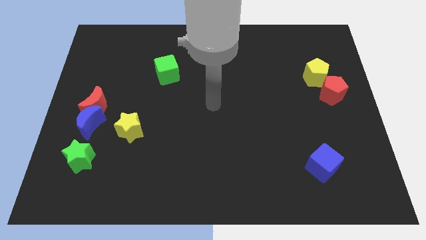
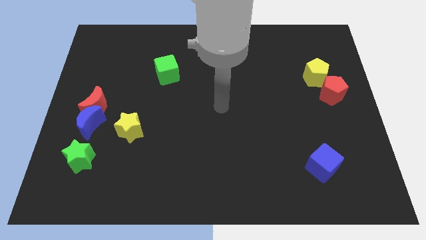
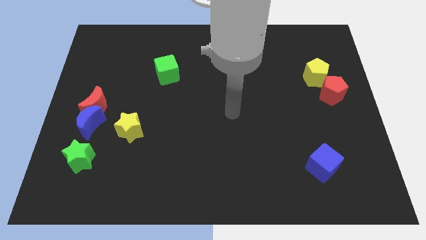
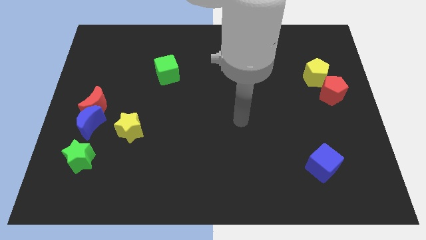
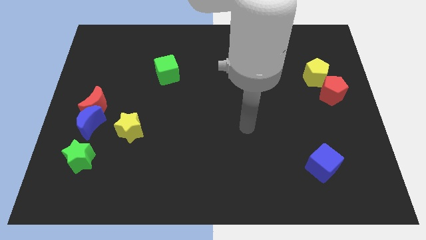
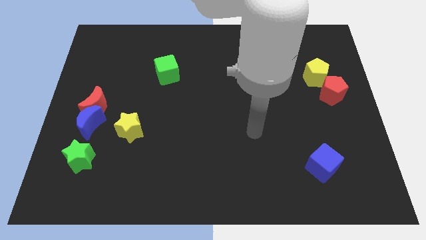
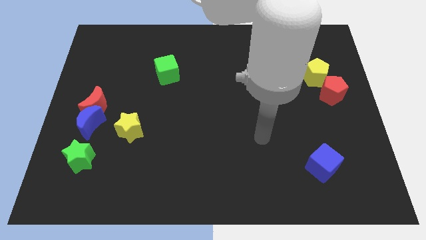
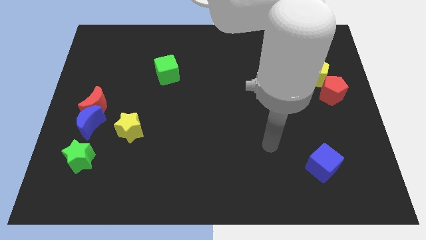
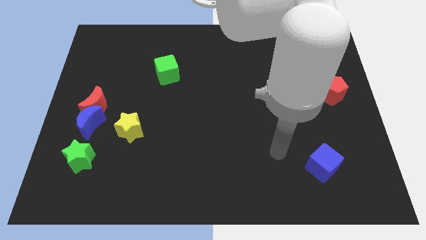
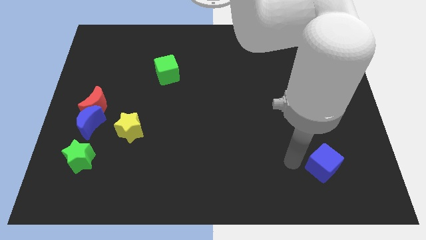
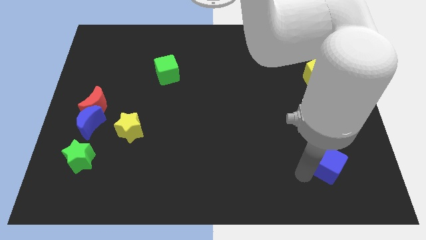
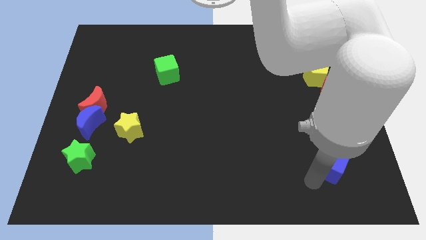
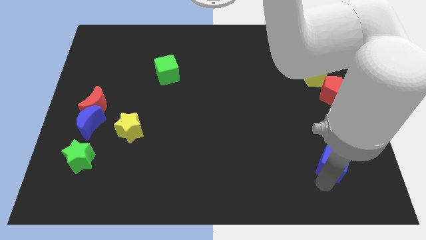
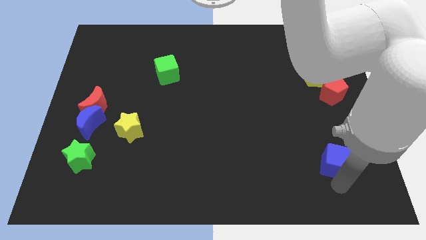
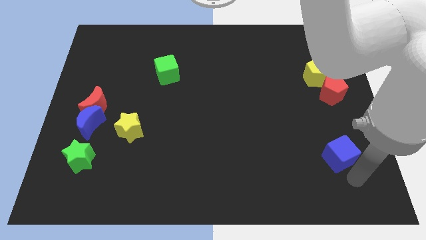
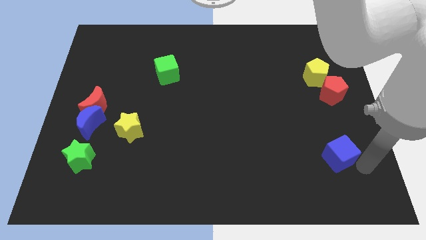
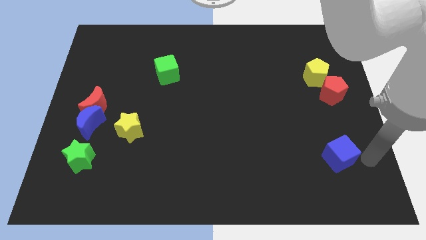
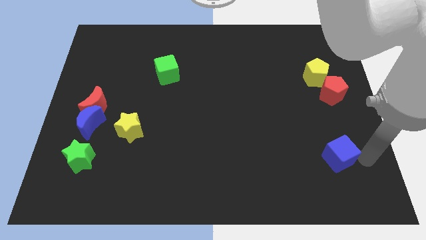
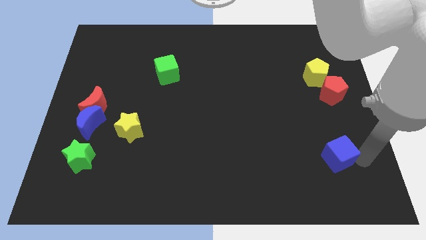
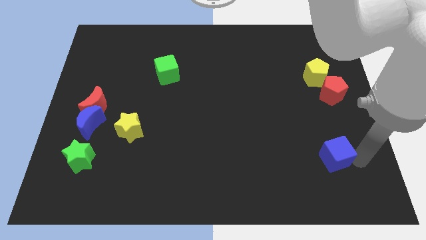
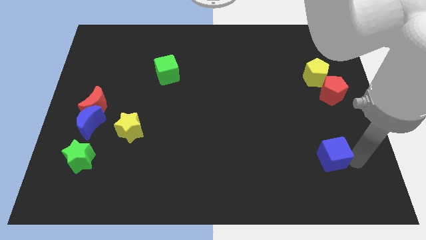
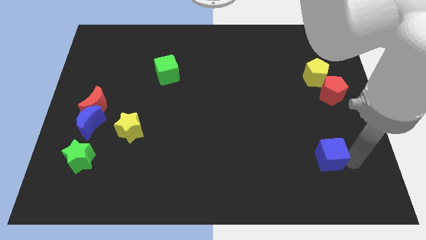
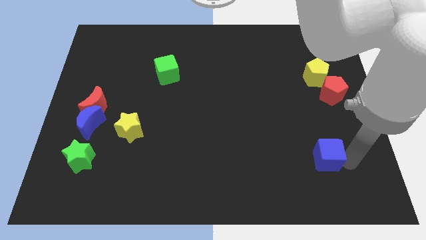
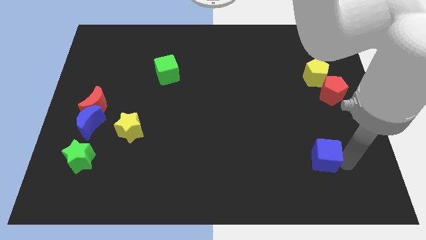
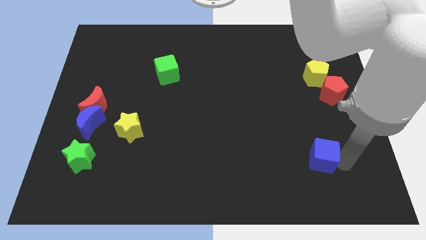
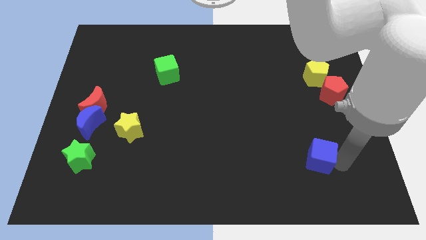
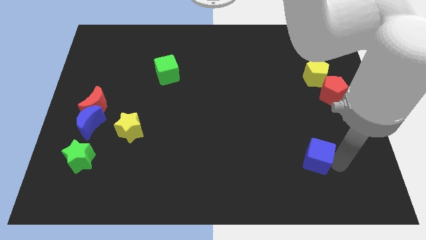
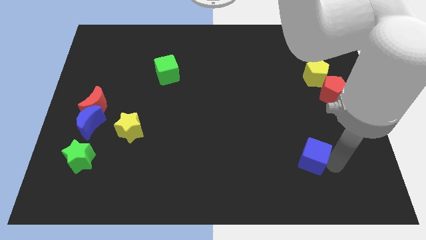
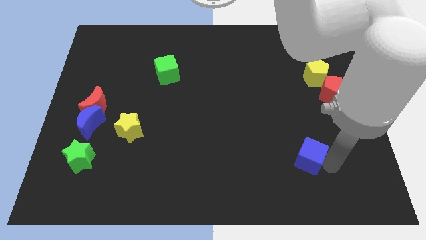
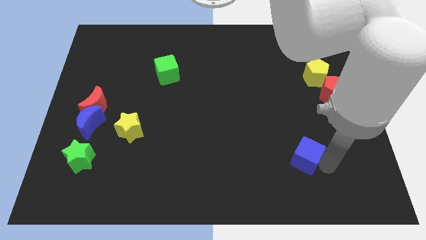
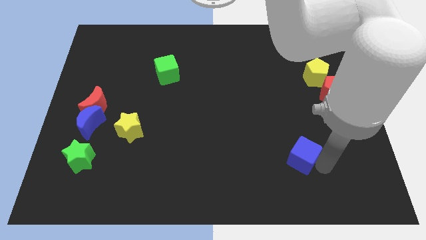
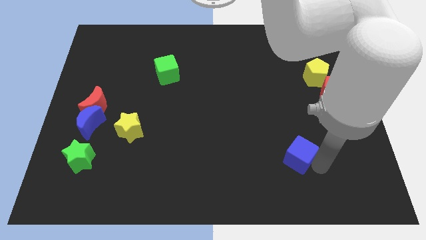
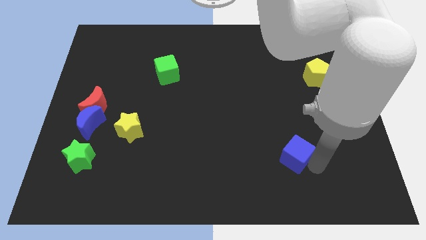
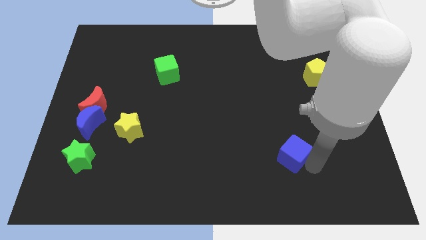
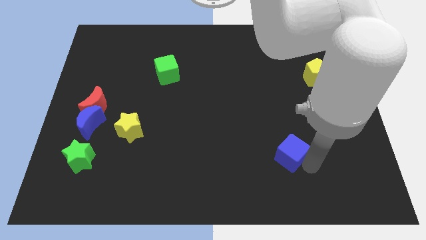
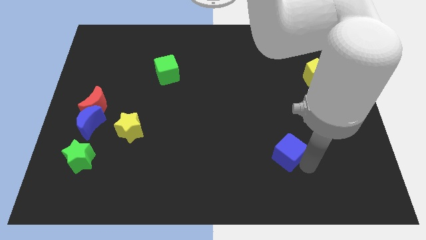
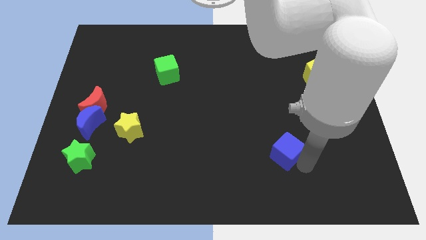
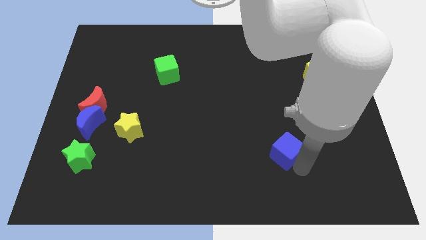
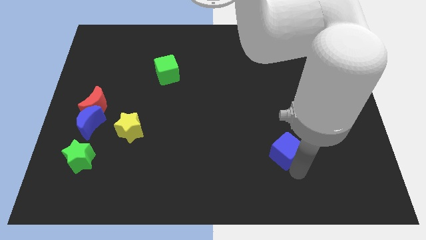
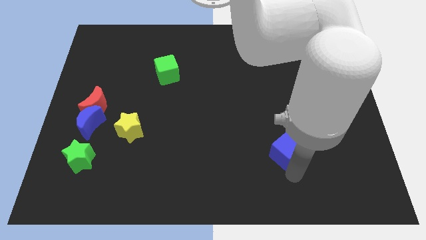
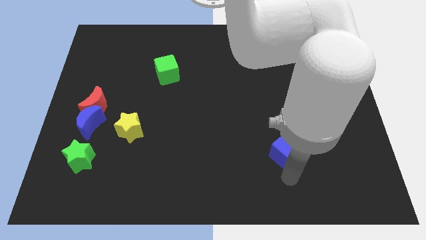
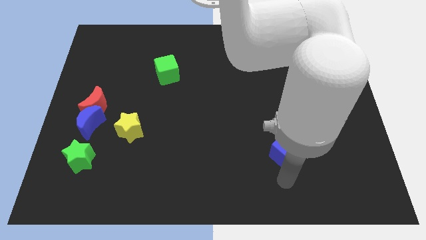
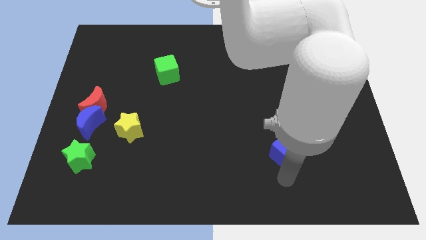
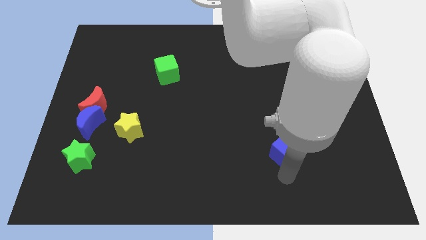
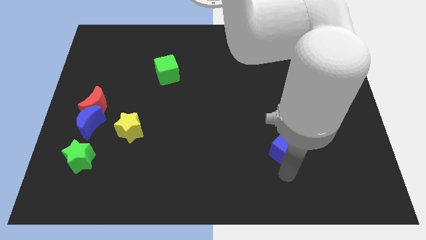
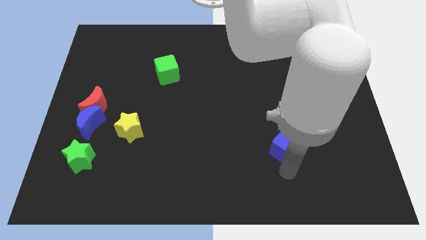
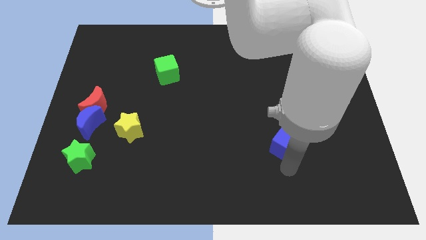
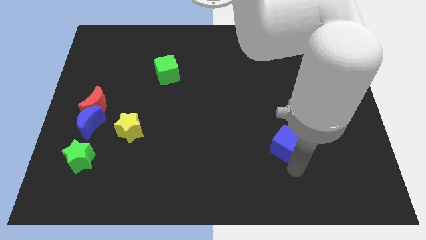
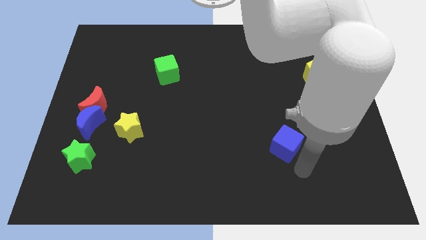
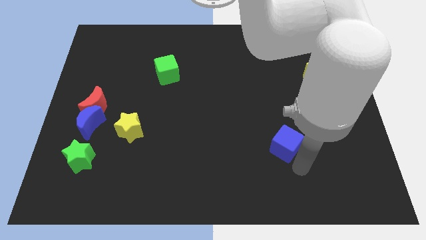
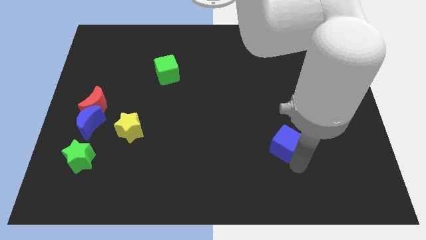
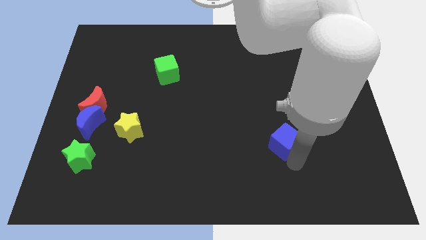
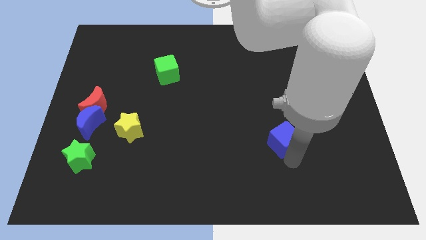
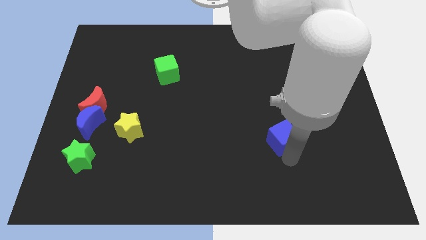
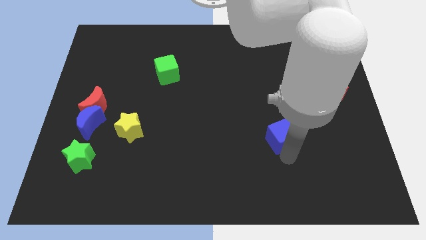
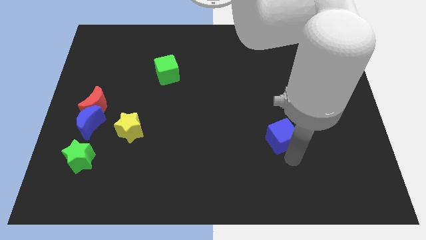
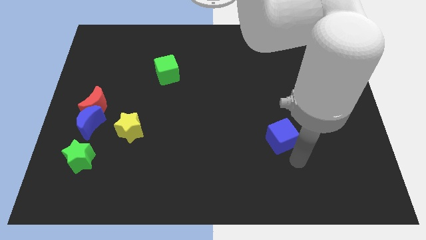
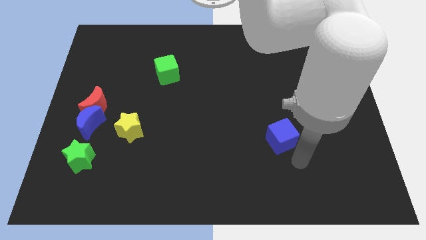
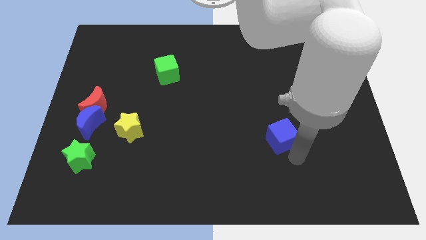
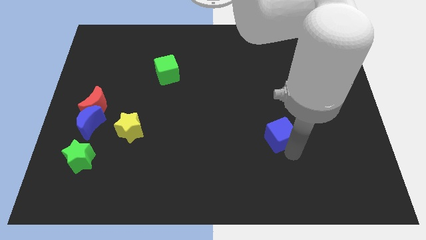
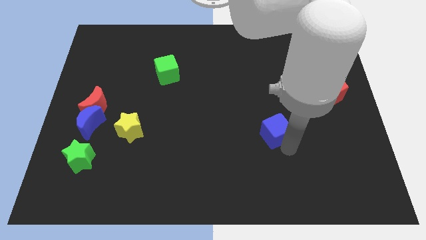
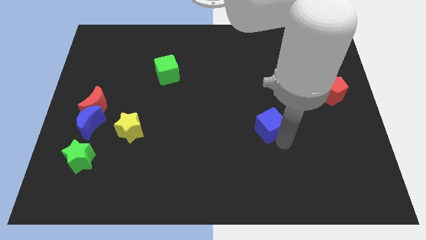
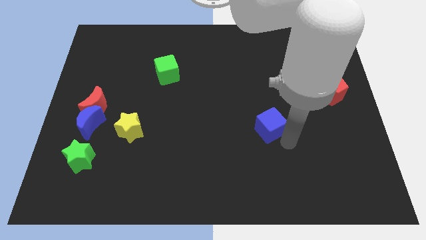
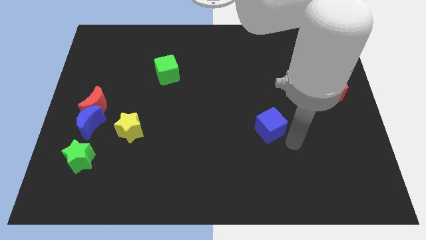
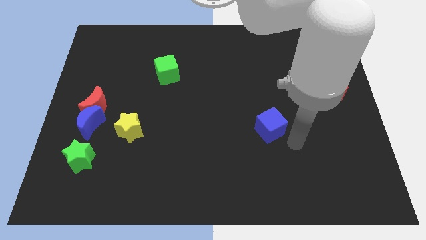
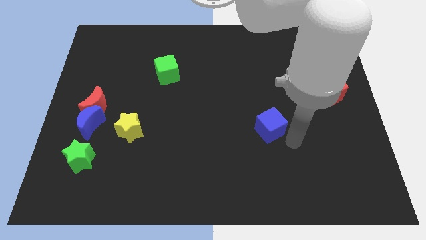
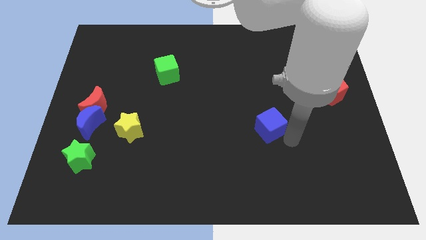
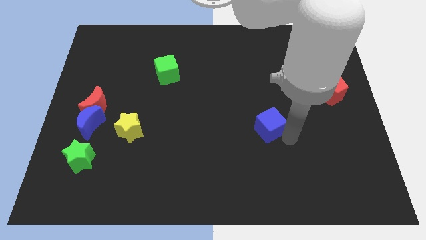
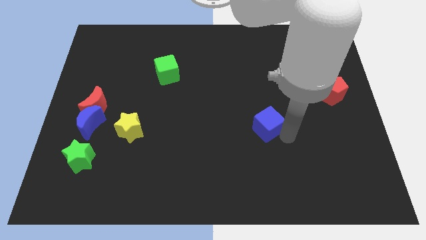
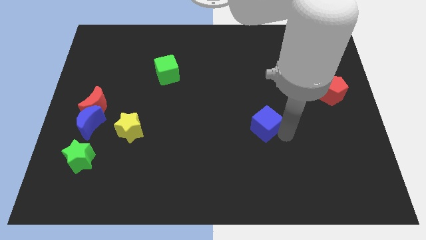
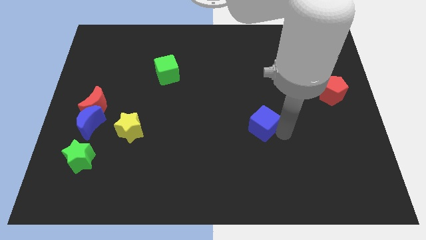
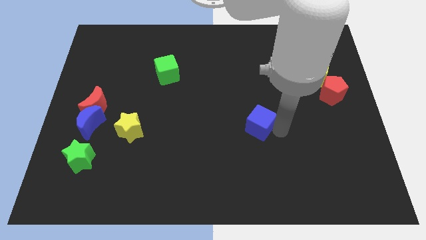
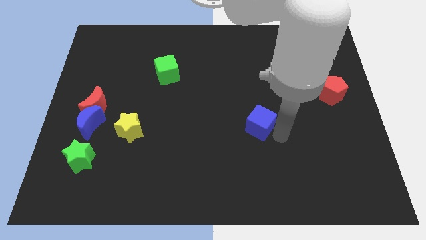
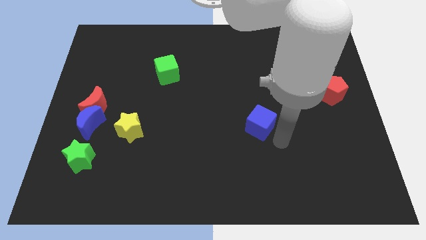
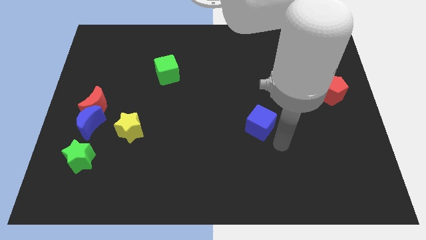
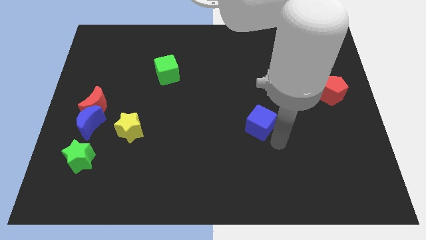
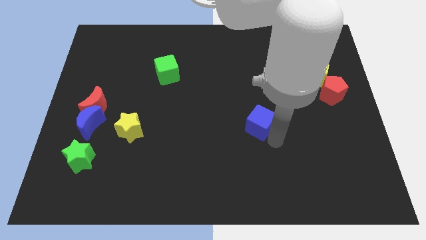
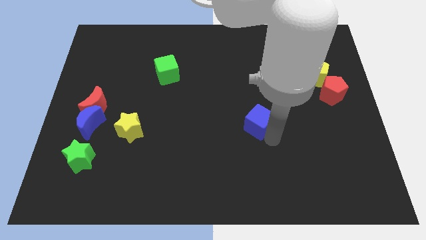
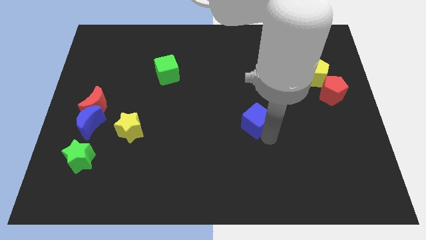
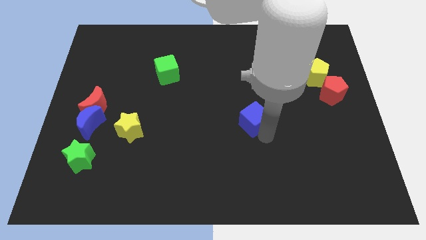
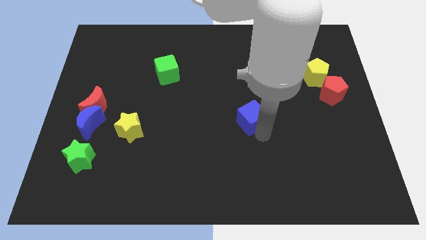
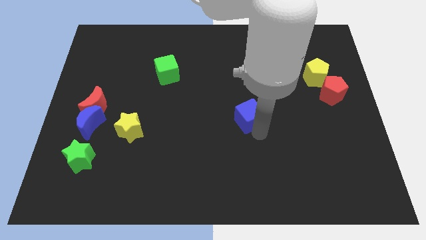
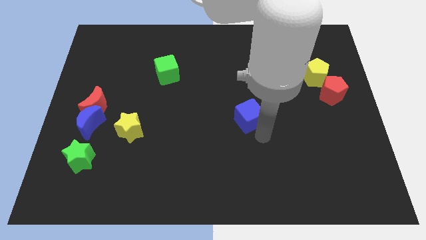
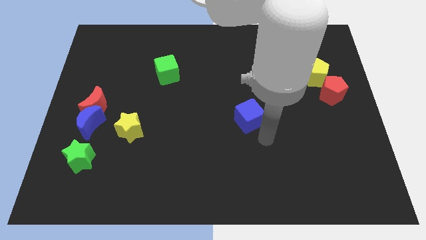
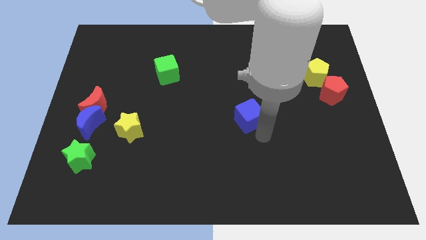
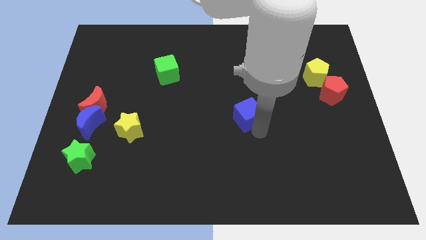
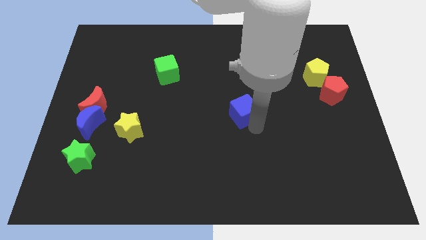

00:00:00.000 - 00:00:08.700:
move the blue cube upwards and to the left
